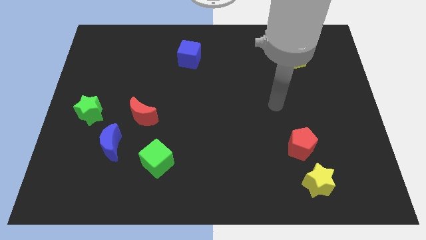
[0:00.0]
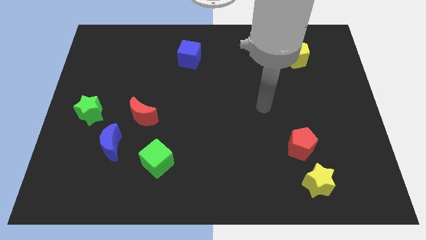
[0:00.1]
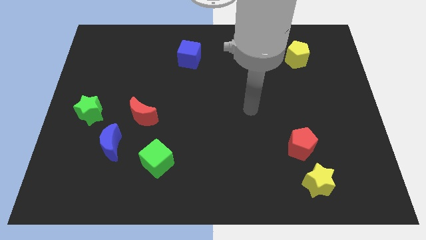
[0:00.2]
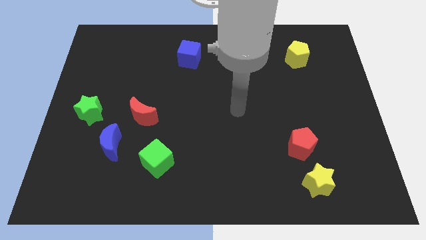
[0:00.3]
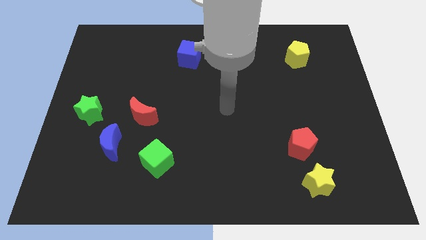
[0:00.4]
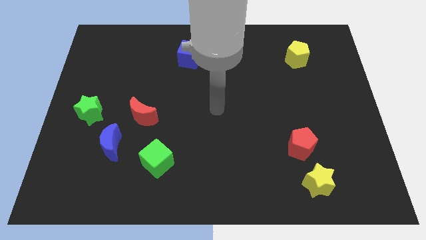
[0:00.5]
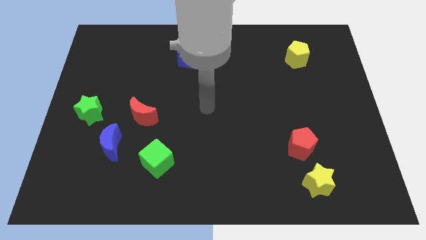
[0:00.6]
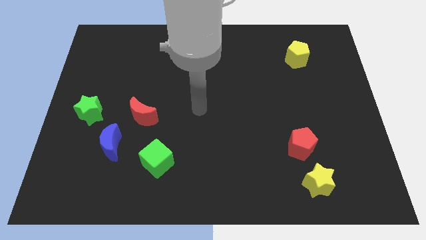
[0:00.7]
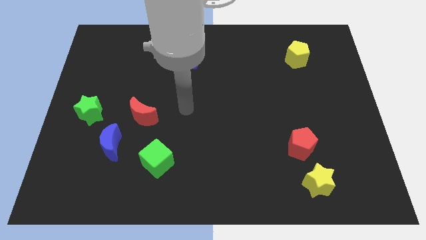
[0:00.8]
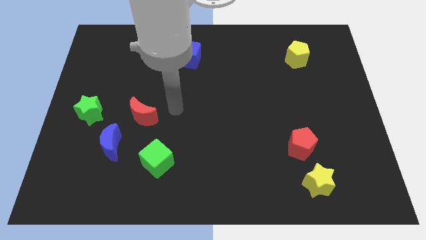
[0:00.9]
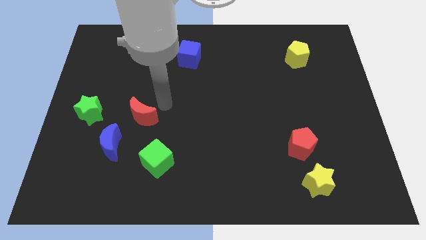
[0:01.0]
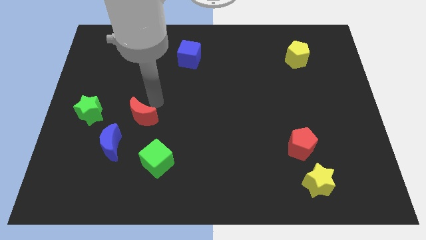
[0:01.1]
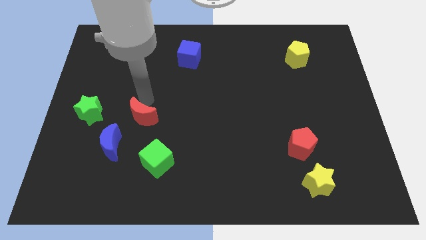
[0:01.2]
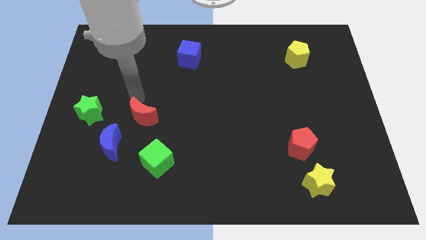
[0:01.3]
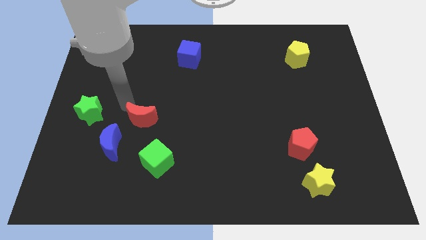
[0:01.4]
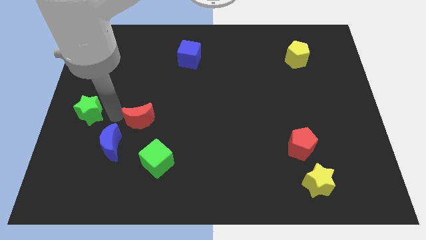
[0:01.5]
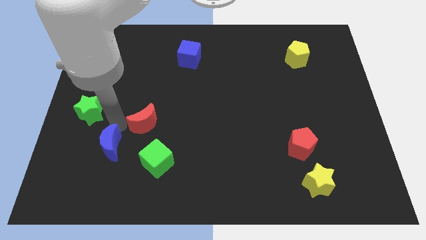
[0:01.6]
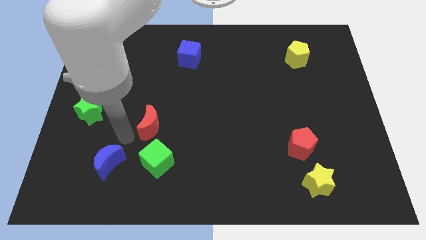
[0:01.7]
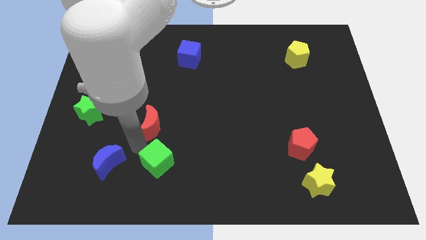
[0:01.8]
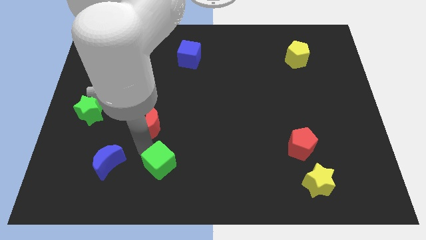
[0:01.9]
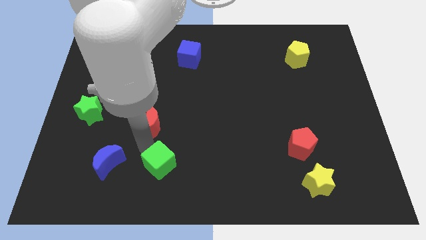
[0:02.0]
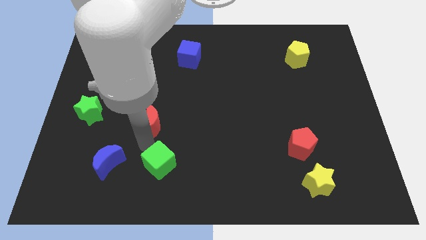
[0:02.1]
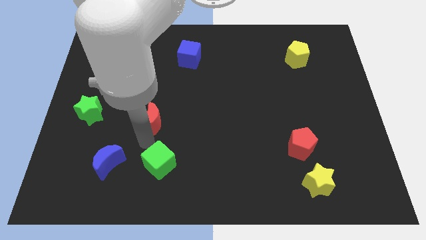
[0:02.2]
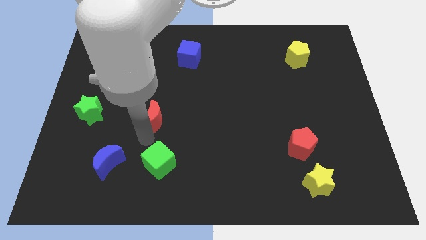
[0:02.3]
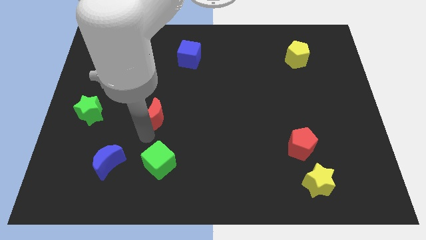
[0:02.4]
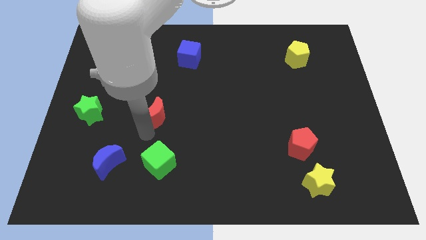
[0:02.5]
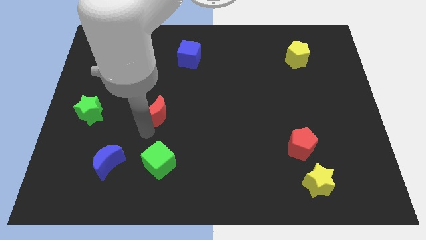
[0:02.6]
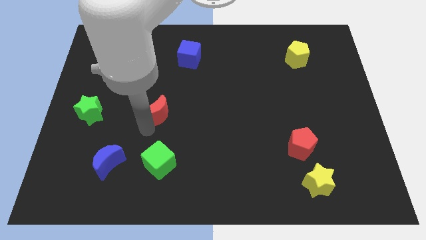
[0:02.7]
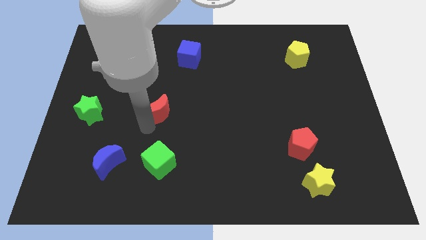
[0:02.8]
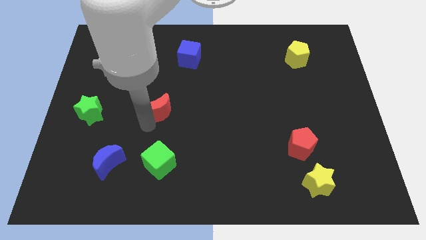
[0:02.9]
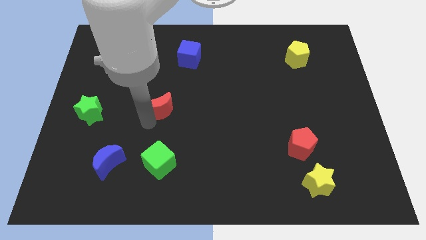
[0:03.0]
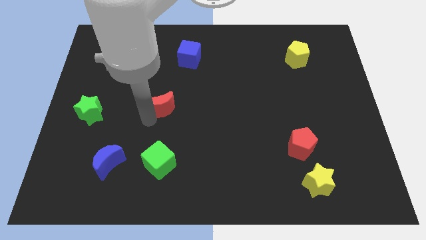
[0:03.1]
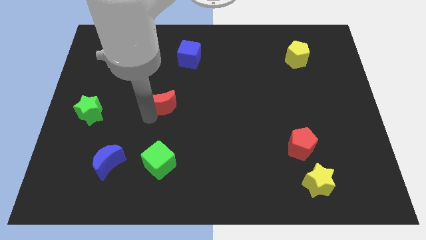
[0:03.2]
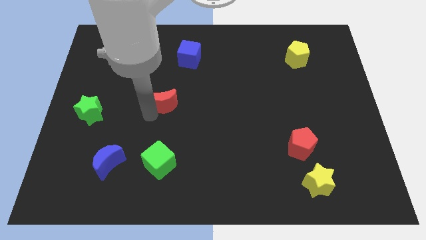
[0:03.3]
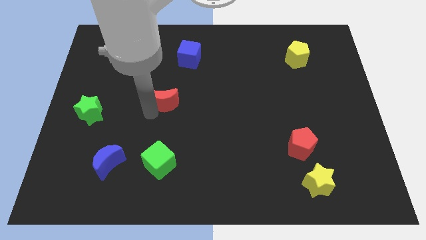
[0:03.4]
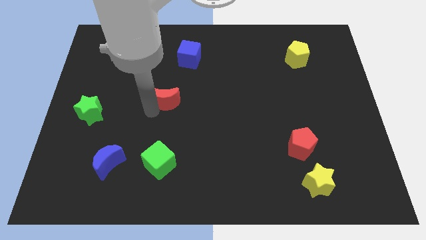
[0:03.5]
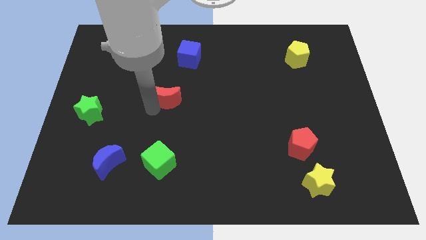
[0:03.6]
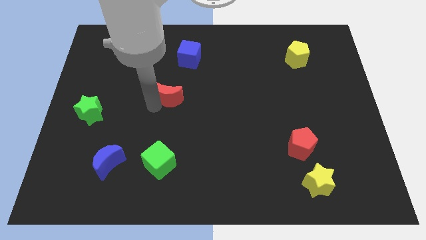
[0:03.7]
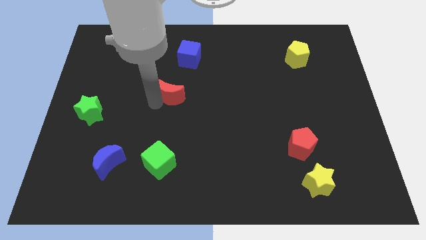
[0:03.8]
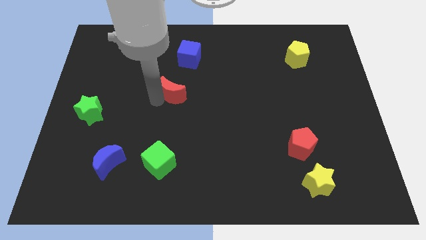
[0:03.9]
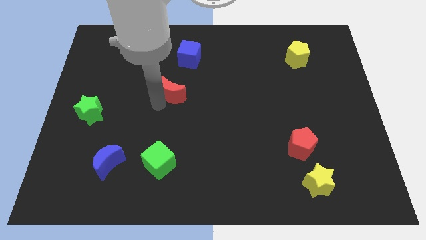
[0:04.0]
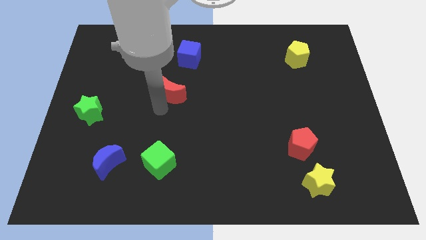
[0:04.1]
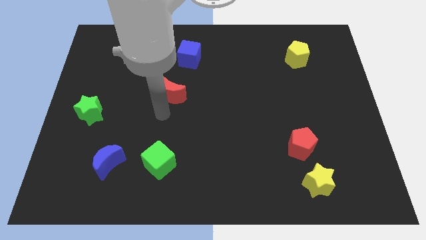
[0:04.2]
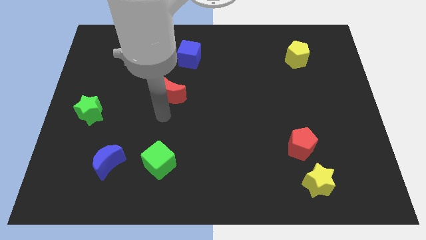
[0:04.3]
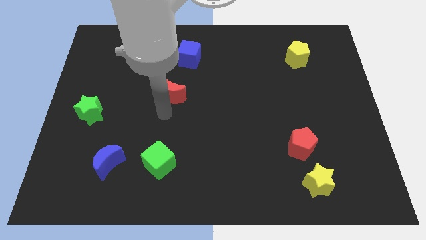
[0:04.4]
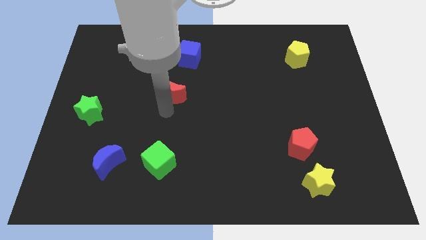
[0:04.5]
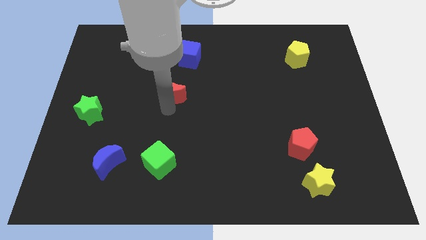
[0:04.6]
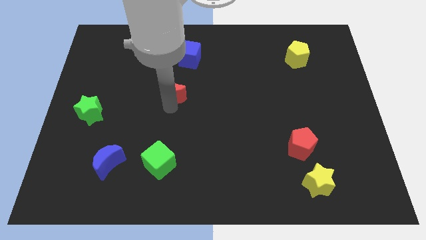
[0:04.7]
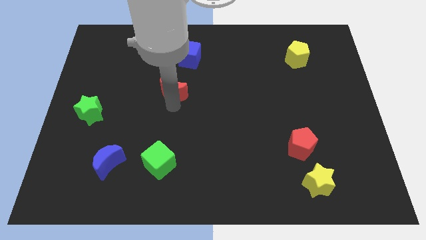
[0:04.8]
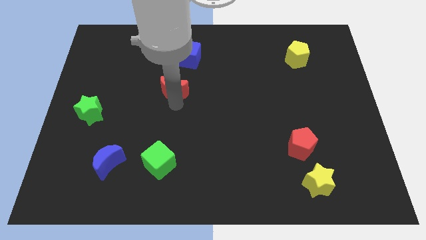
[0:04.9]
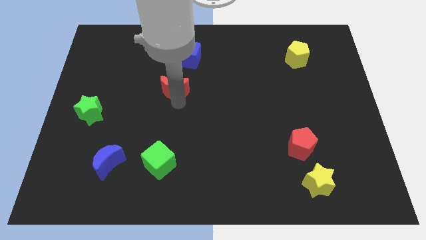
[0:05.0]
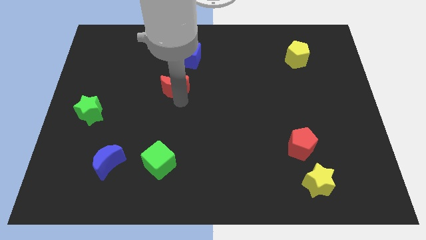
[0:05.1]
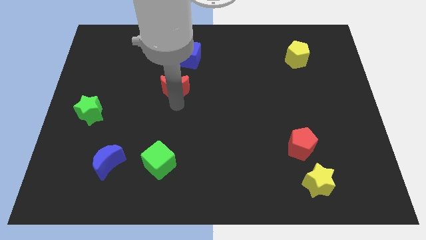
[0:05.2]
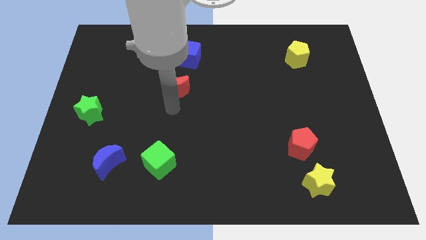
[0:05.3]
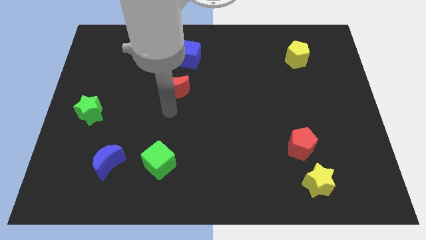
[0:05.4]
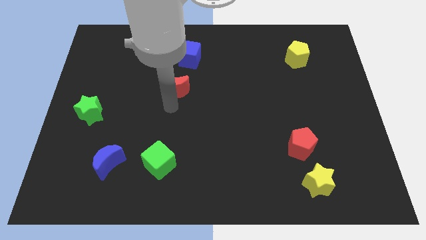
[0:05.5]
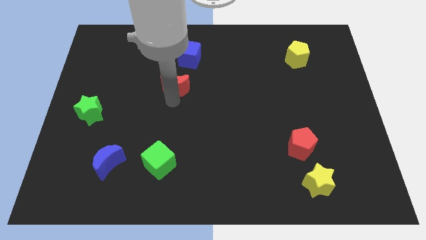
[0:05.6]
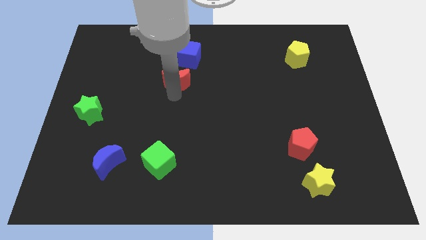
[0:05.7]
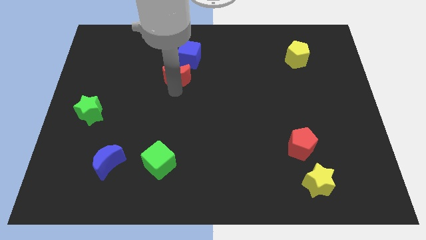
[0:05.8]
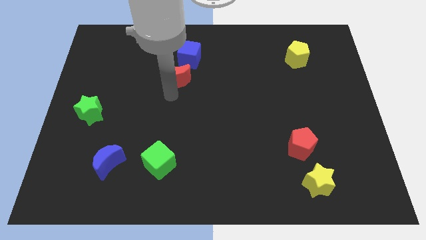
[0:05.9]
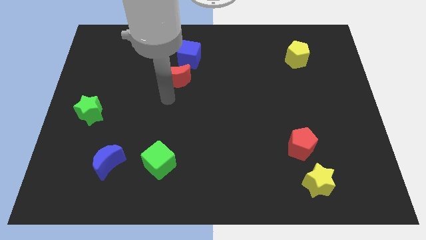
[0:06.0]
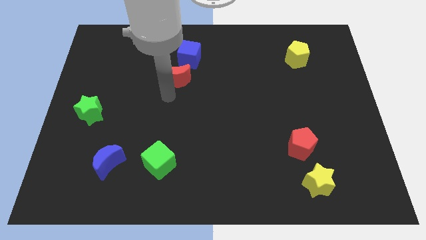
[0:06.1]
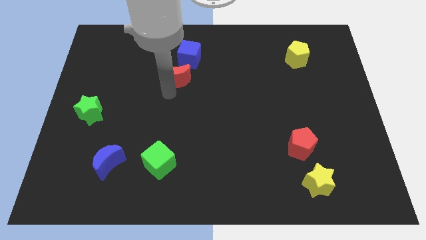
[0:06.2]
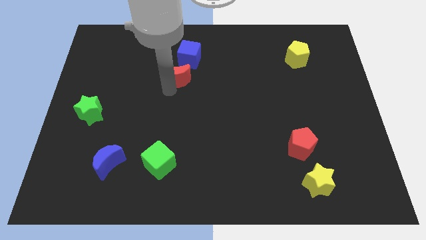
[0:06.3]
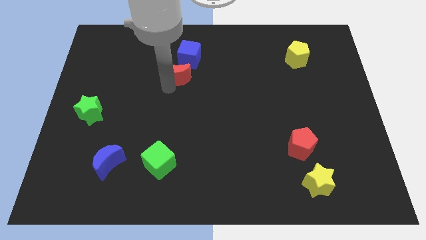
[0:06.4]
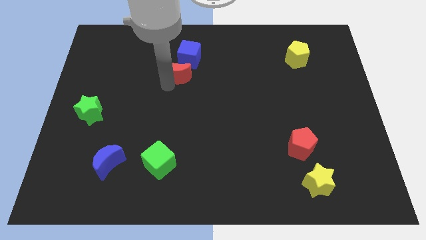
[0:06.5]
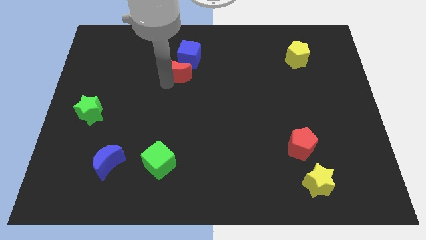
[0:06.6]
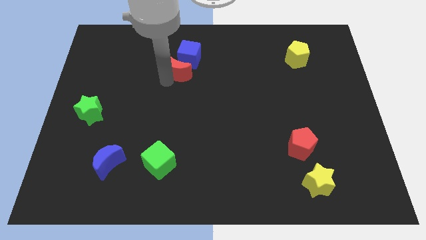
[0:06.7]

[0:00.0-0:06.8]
move the red moon close to the blue cube

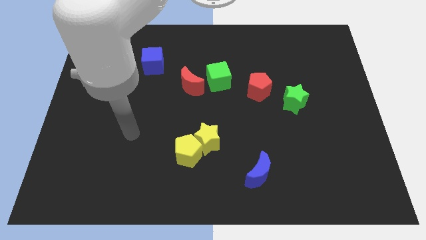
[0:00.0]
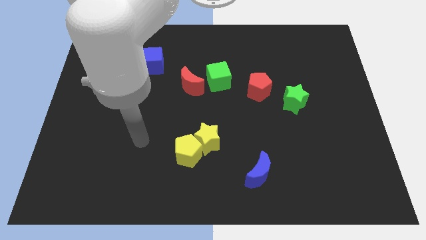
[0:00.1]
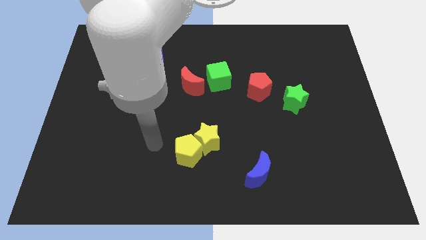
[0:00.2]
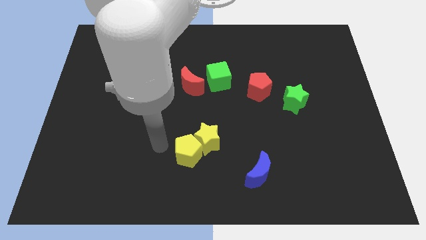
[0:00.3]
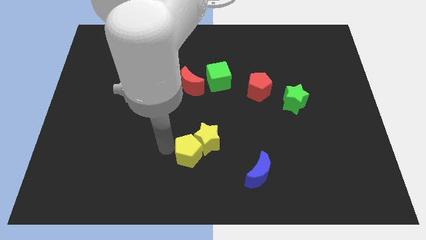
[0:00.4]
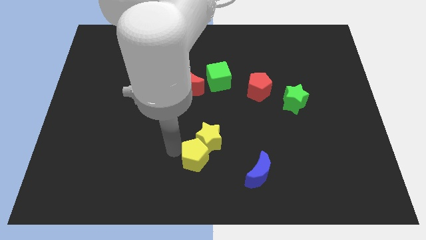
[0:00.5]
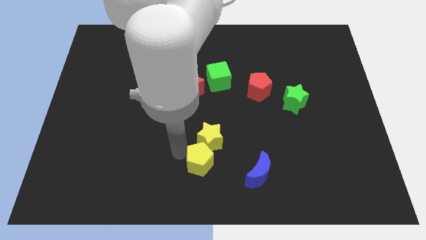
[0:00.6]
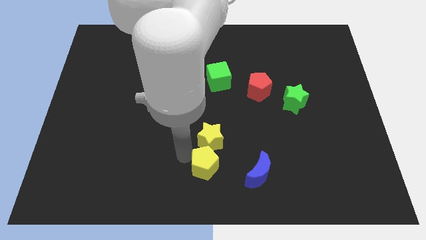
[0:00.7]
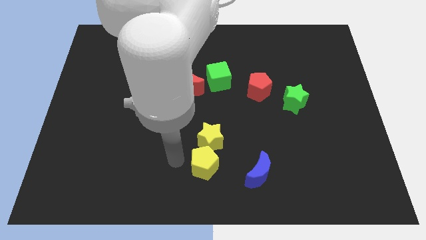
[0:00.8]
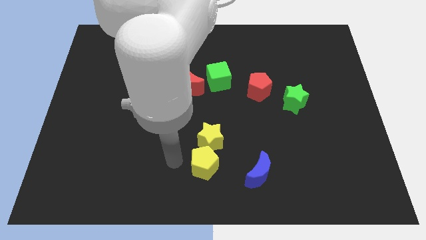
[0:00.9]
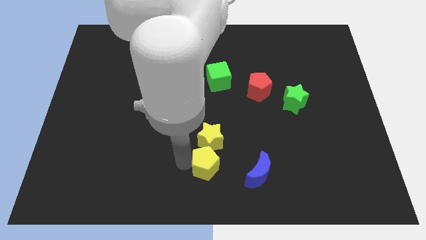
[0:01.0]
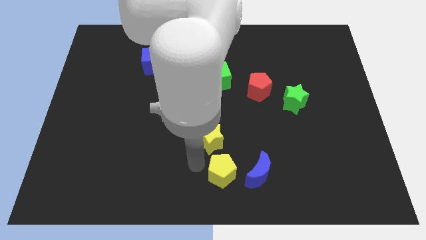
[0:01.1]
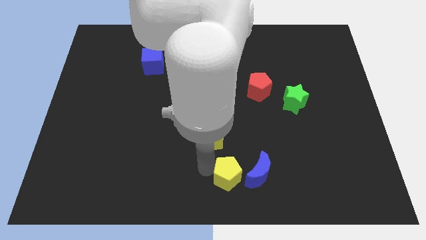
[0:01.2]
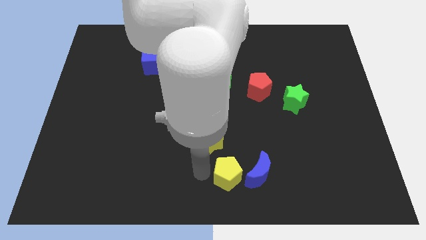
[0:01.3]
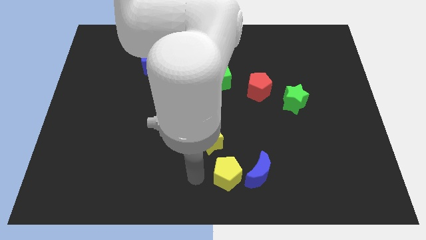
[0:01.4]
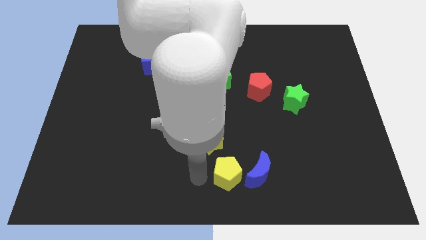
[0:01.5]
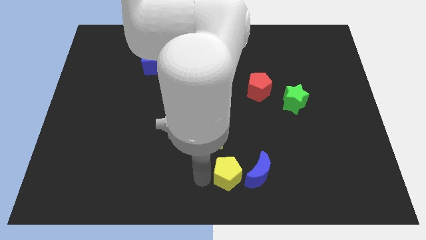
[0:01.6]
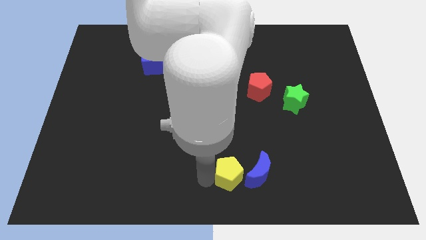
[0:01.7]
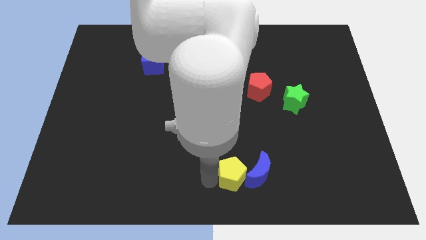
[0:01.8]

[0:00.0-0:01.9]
slide the yellow pentagon close to the blue moon
